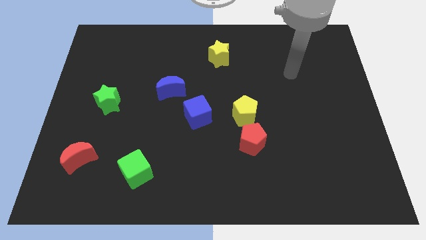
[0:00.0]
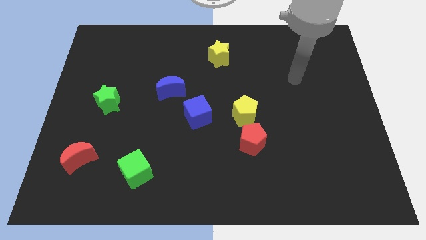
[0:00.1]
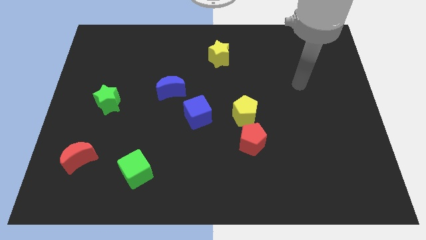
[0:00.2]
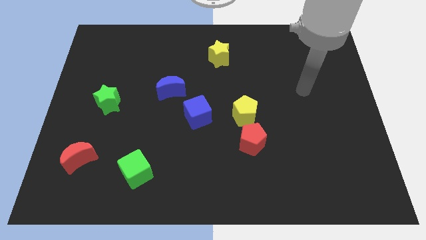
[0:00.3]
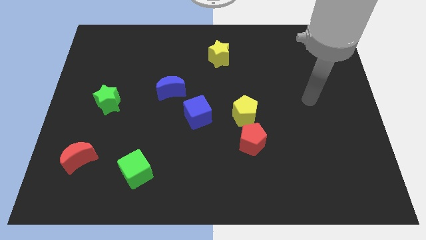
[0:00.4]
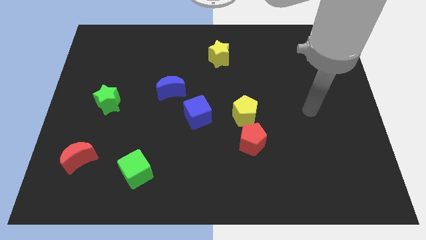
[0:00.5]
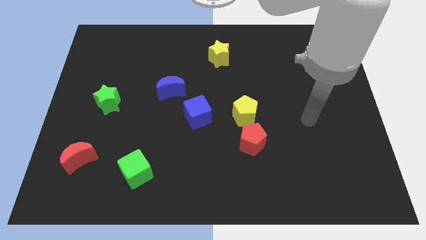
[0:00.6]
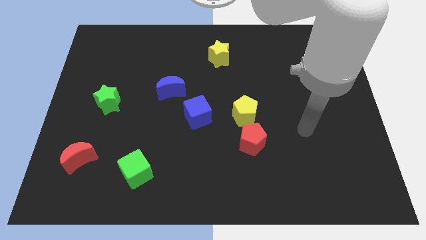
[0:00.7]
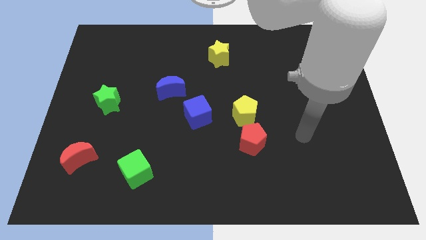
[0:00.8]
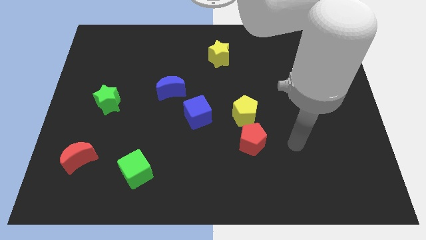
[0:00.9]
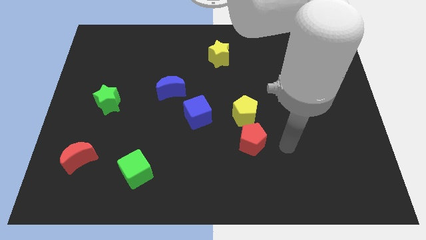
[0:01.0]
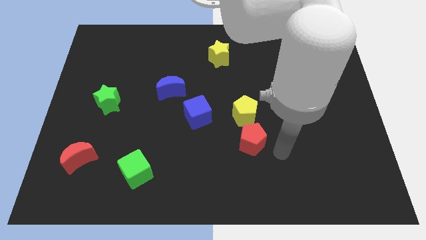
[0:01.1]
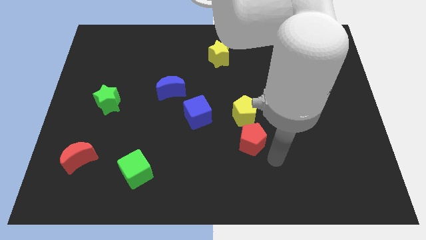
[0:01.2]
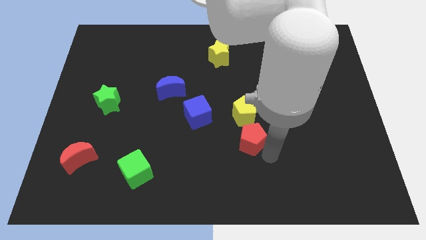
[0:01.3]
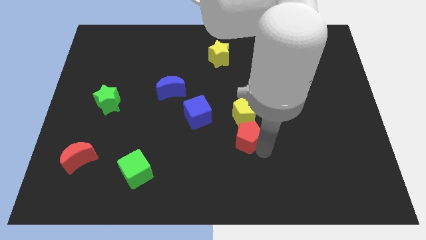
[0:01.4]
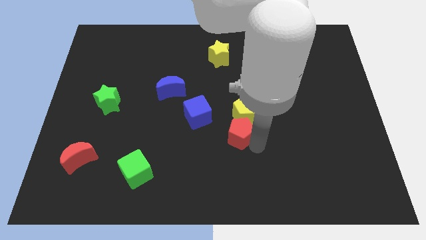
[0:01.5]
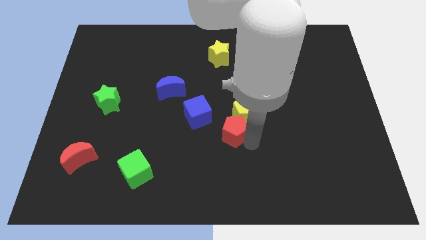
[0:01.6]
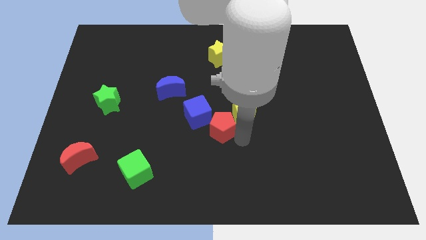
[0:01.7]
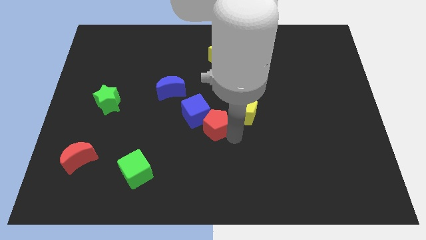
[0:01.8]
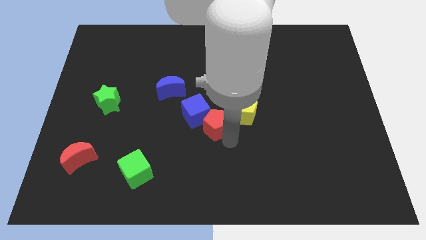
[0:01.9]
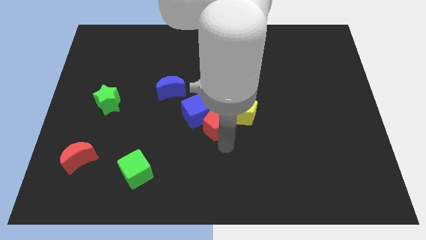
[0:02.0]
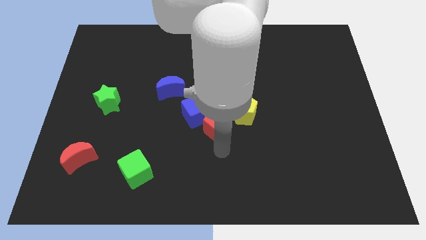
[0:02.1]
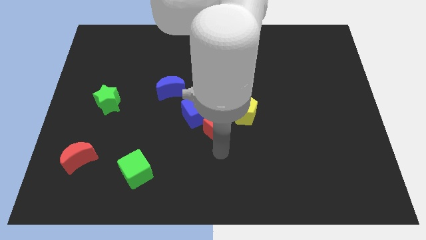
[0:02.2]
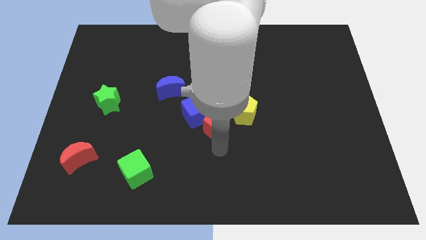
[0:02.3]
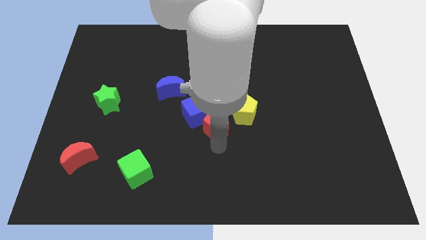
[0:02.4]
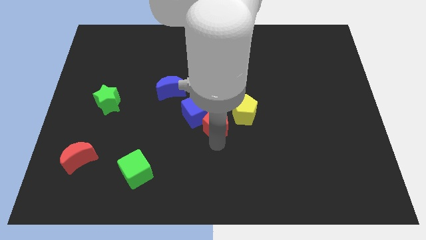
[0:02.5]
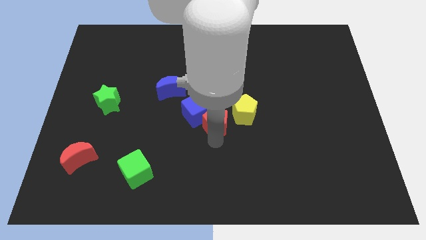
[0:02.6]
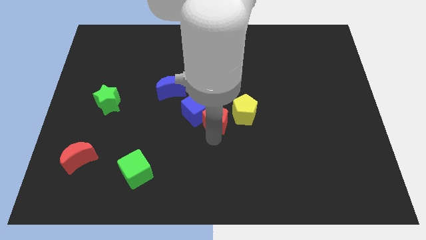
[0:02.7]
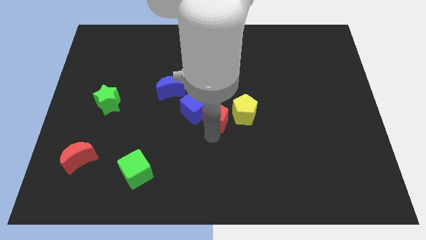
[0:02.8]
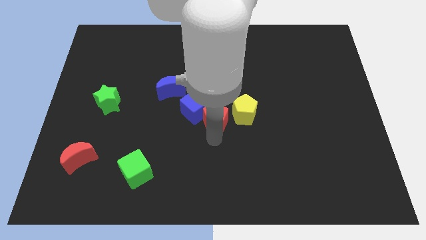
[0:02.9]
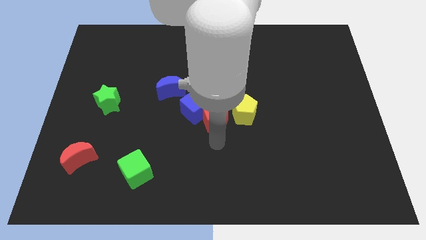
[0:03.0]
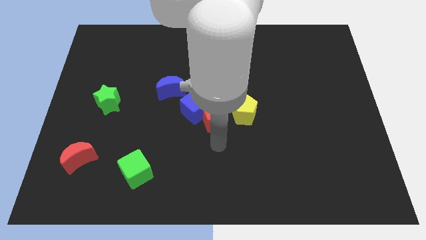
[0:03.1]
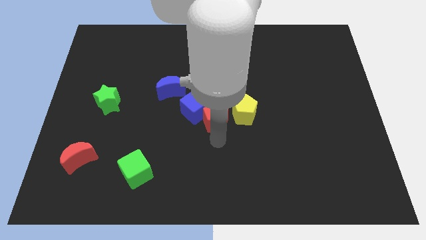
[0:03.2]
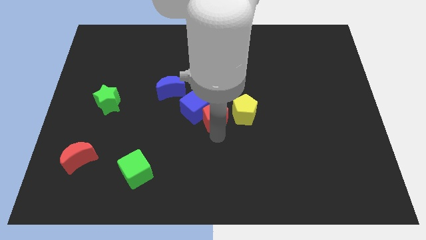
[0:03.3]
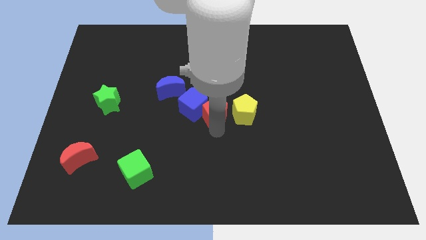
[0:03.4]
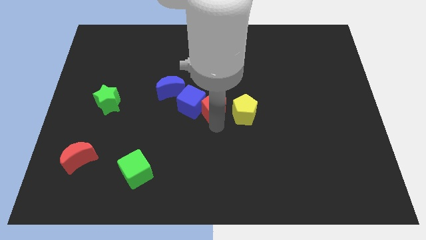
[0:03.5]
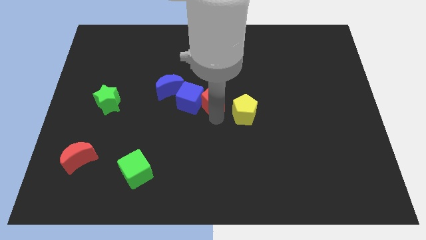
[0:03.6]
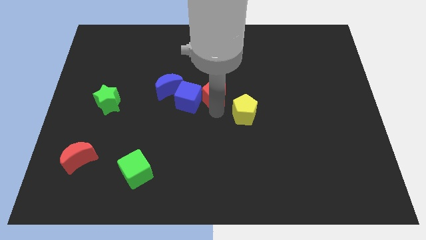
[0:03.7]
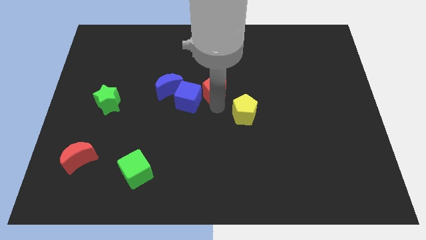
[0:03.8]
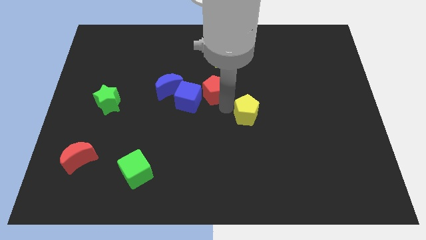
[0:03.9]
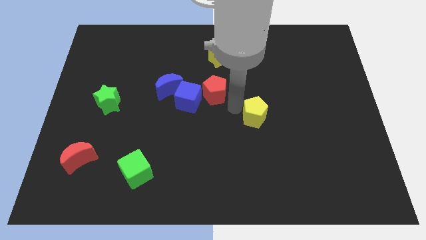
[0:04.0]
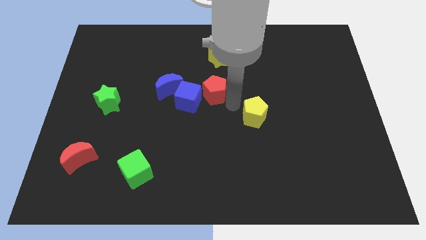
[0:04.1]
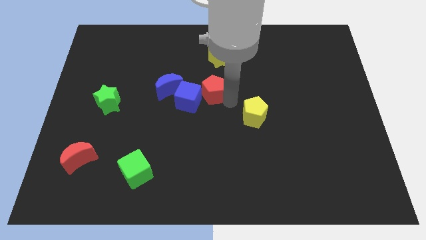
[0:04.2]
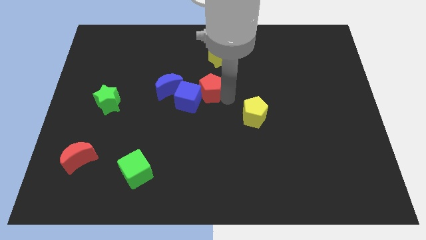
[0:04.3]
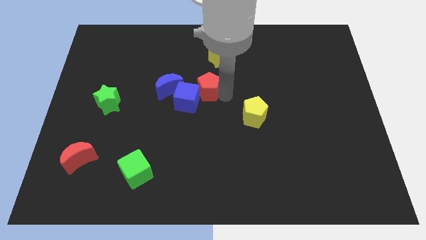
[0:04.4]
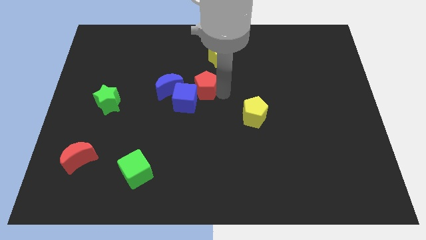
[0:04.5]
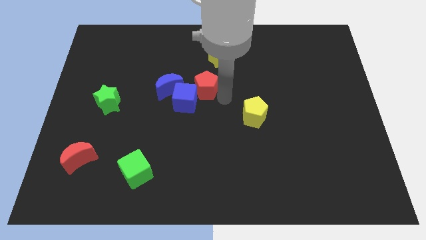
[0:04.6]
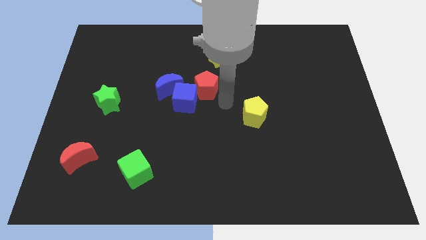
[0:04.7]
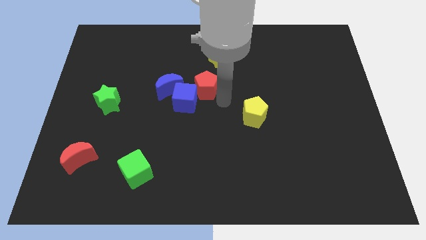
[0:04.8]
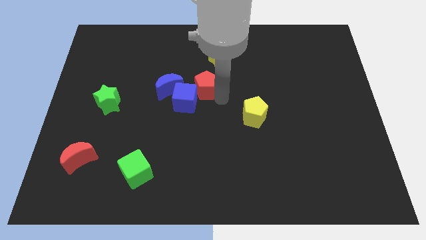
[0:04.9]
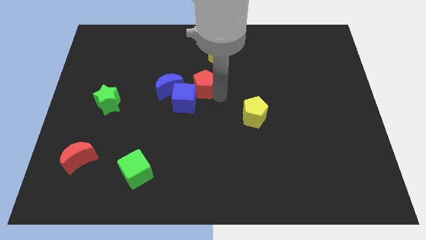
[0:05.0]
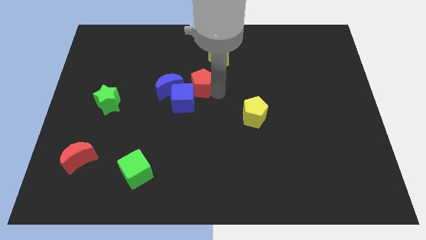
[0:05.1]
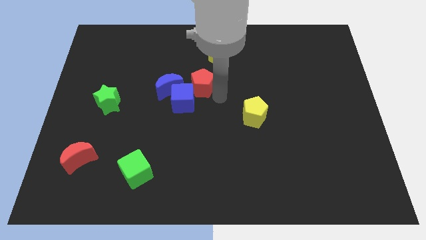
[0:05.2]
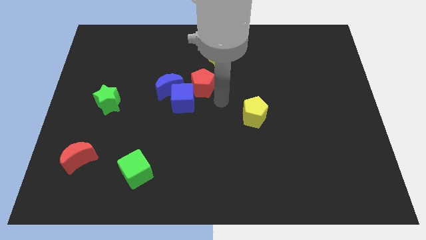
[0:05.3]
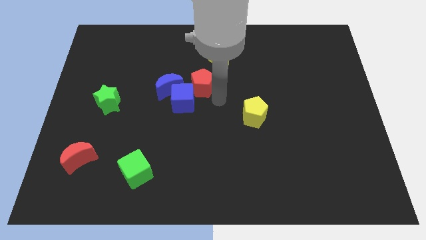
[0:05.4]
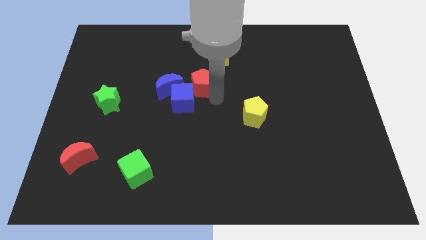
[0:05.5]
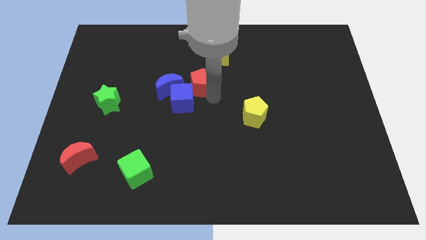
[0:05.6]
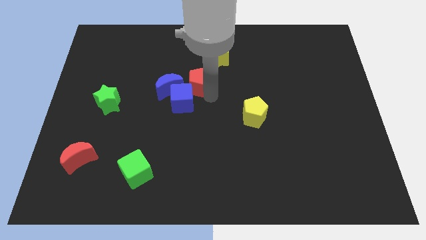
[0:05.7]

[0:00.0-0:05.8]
slide the red pentagon up and left diagonally

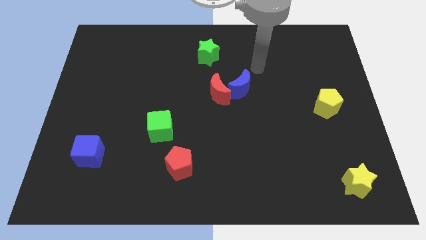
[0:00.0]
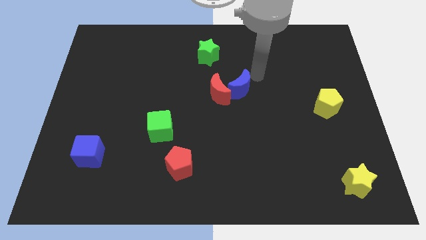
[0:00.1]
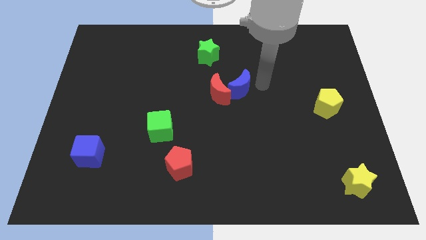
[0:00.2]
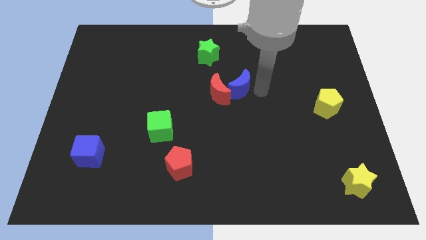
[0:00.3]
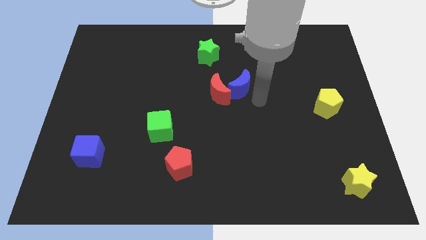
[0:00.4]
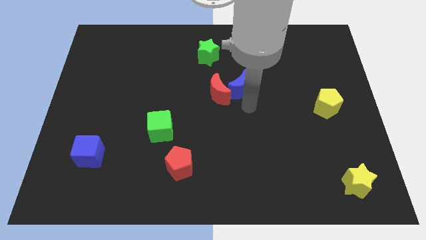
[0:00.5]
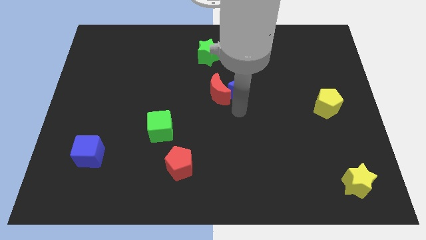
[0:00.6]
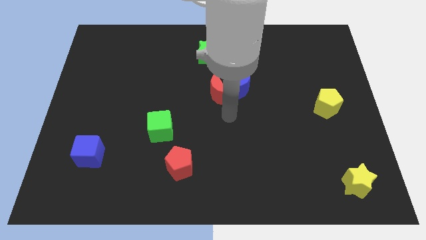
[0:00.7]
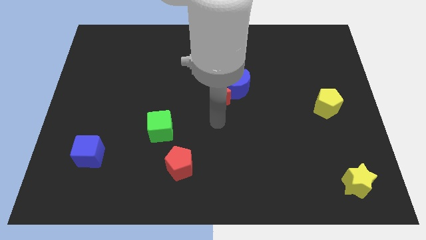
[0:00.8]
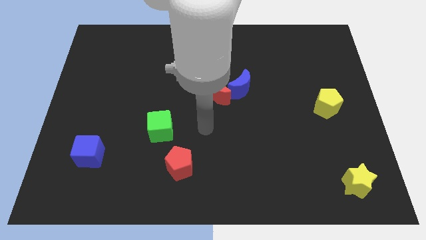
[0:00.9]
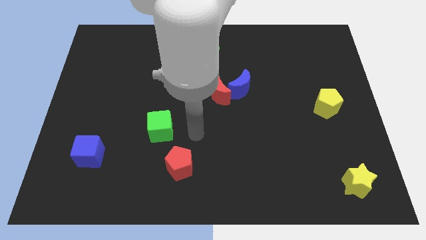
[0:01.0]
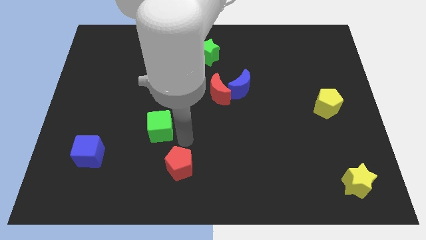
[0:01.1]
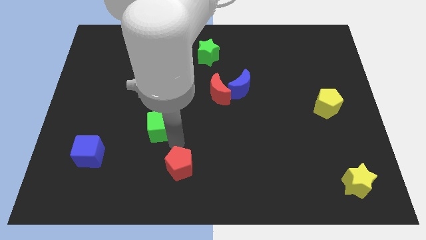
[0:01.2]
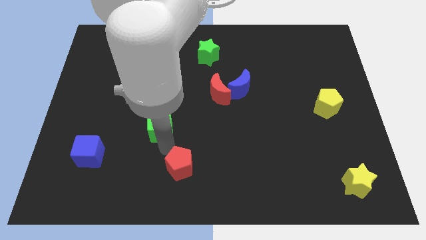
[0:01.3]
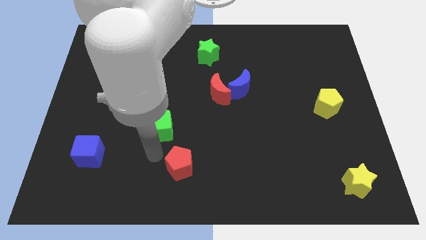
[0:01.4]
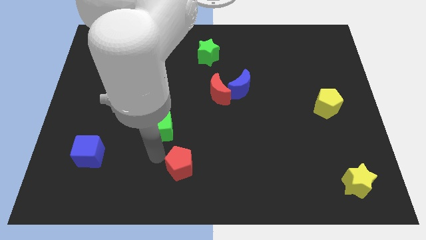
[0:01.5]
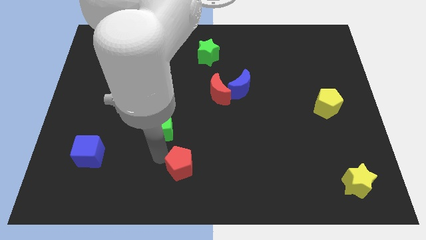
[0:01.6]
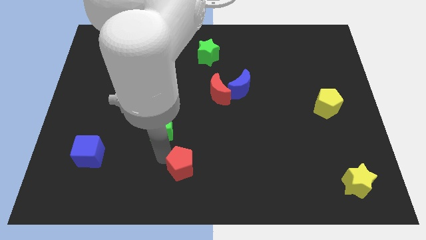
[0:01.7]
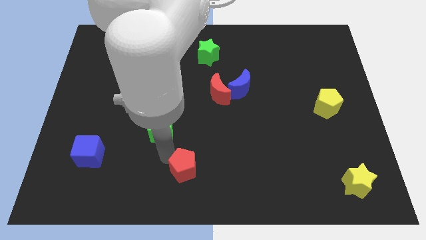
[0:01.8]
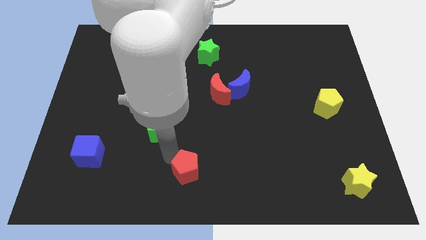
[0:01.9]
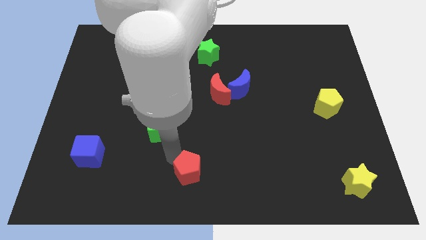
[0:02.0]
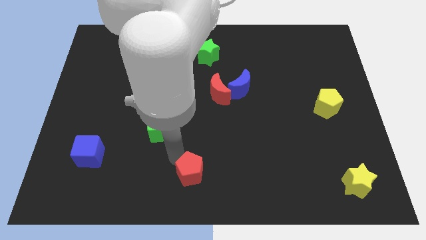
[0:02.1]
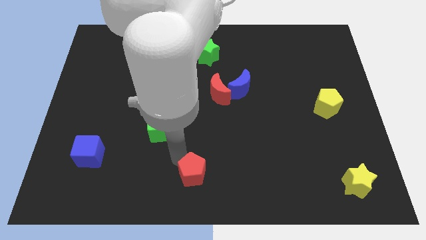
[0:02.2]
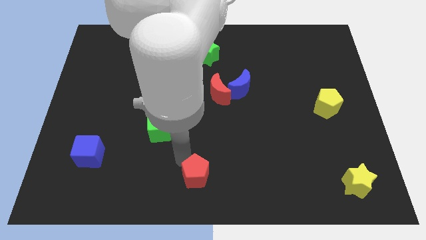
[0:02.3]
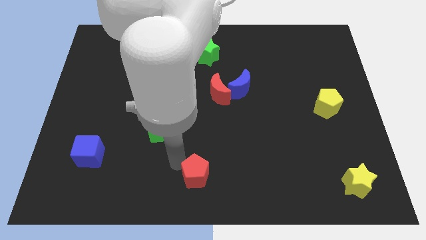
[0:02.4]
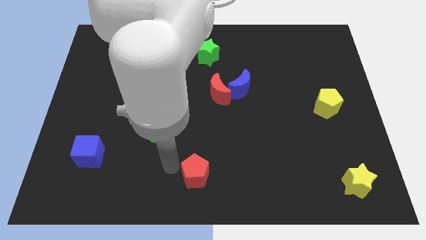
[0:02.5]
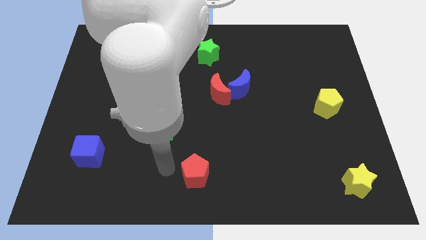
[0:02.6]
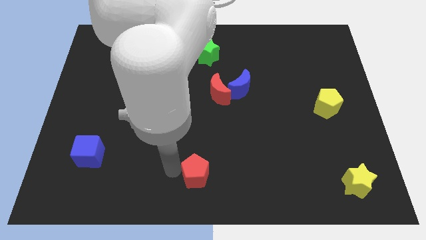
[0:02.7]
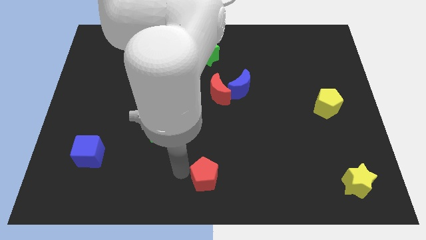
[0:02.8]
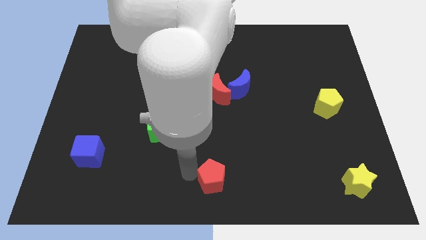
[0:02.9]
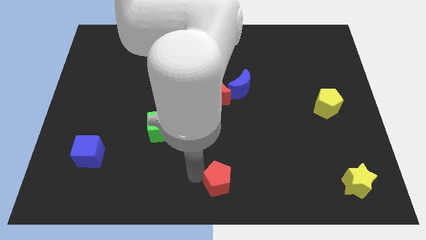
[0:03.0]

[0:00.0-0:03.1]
push the red pentagon slightly to the right
